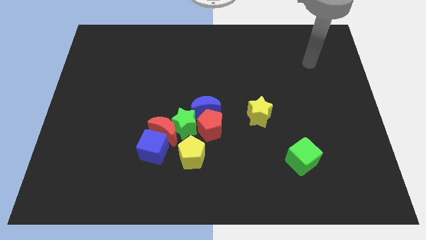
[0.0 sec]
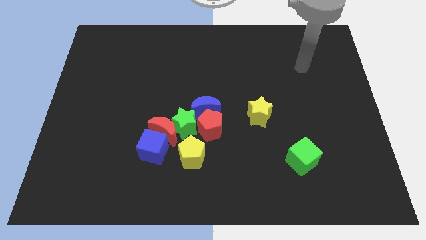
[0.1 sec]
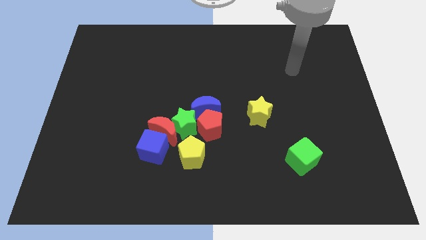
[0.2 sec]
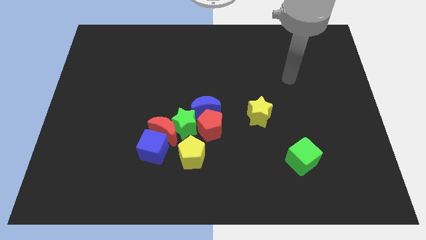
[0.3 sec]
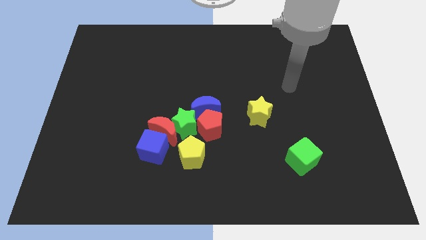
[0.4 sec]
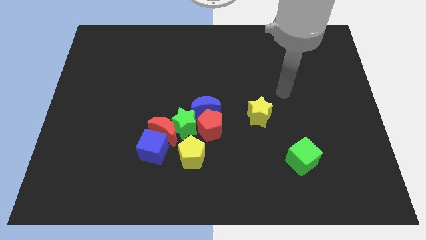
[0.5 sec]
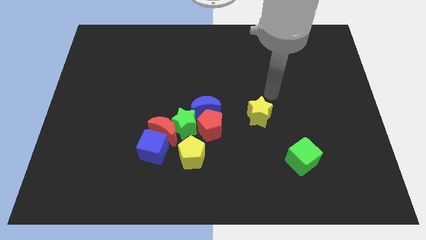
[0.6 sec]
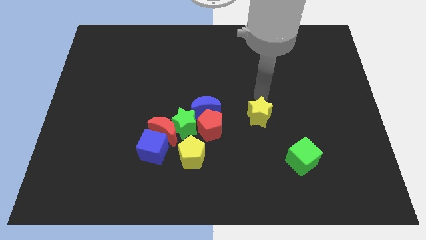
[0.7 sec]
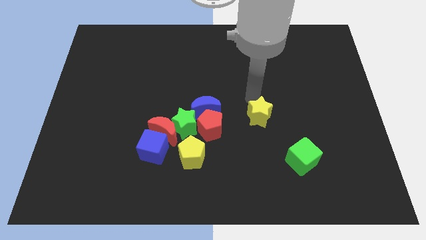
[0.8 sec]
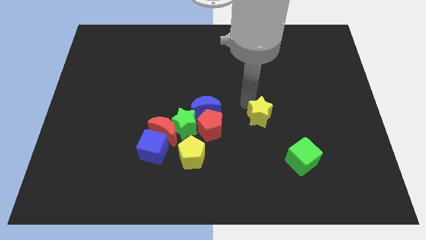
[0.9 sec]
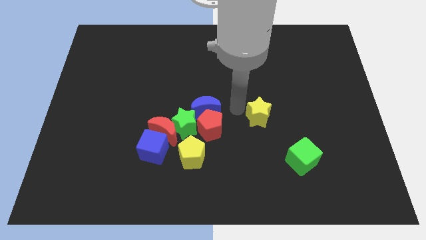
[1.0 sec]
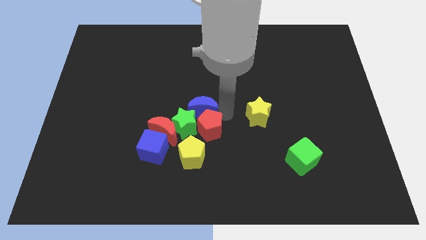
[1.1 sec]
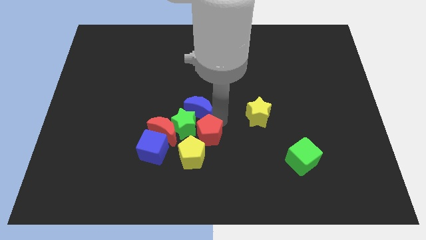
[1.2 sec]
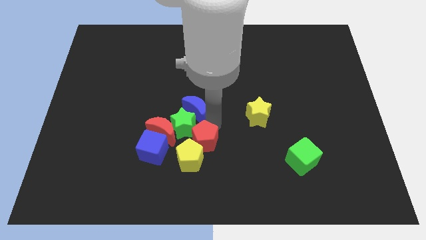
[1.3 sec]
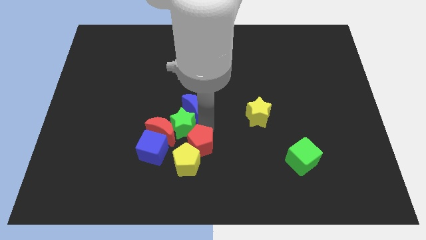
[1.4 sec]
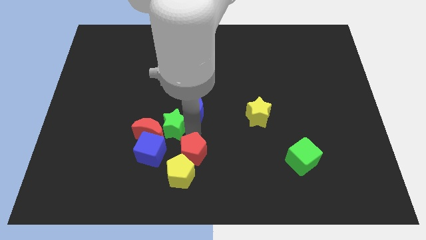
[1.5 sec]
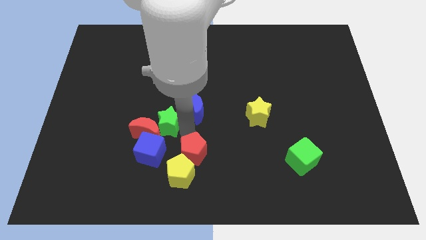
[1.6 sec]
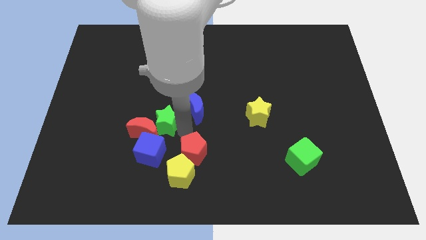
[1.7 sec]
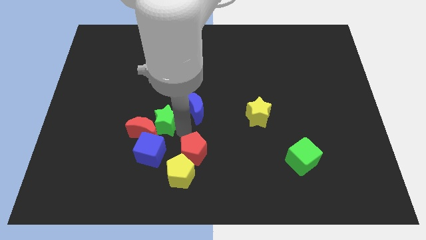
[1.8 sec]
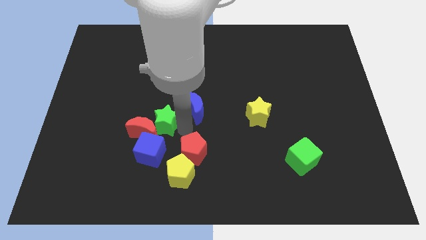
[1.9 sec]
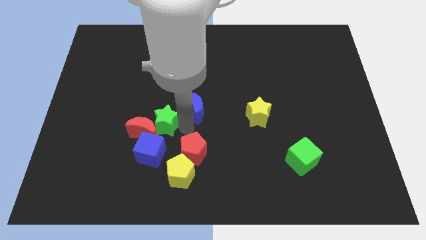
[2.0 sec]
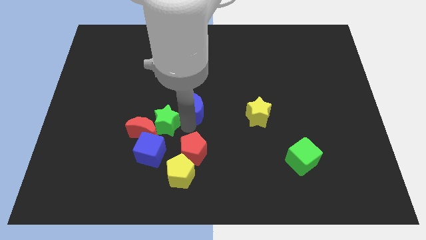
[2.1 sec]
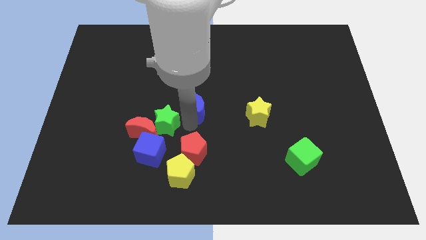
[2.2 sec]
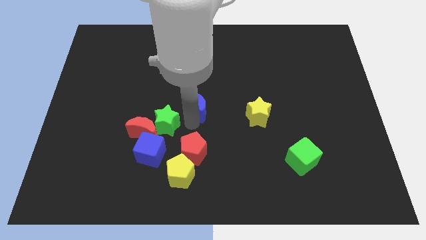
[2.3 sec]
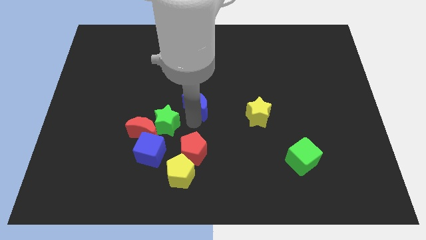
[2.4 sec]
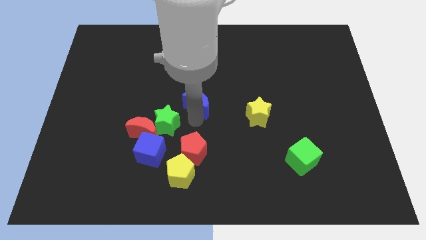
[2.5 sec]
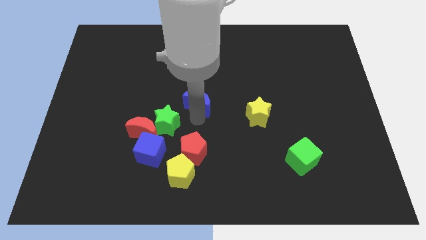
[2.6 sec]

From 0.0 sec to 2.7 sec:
separate the blue moon from the red pentagon and green star

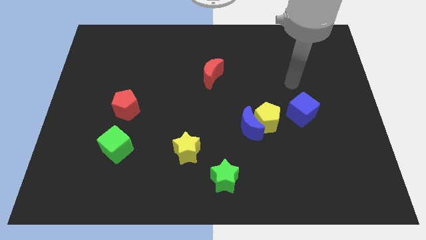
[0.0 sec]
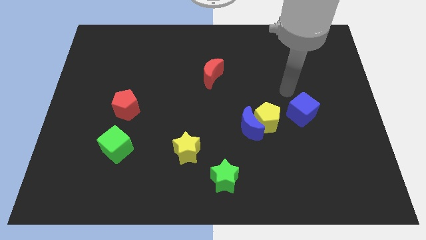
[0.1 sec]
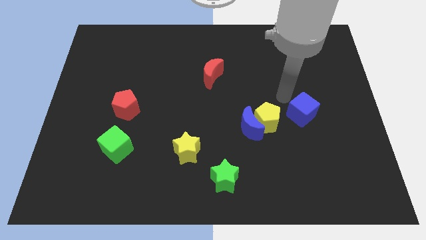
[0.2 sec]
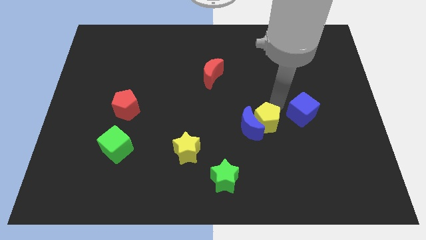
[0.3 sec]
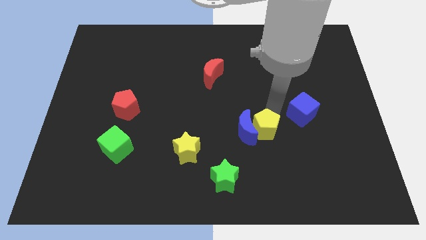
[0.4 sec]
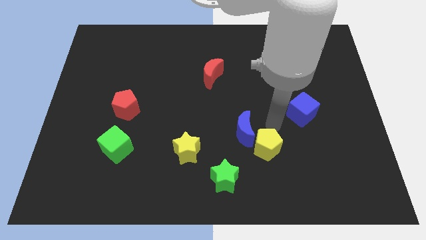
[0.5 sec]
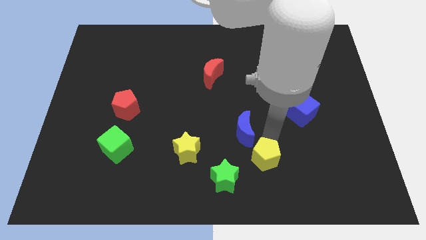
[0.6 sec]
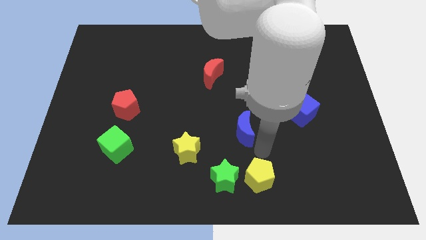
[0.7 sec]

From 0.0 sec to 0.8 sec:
pull the blue moon apart from the yellow pentagon

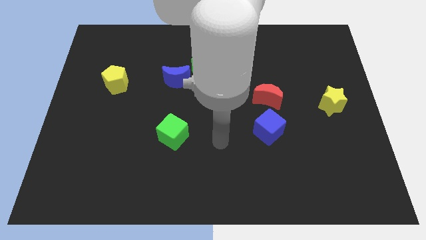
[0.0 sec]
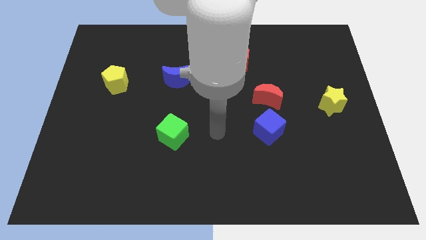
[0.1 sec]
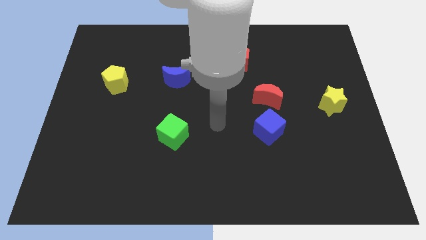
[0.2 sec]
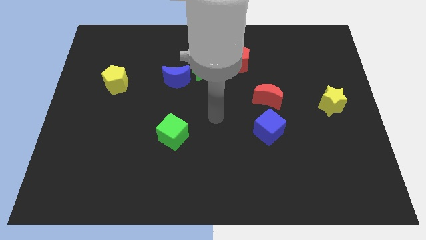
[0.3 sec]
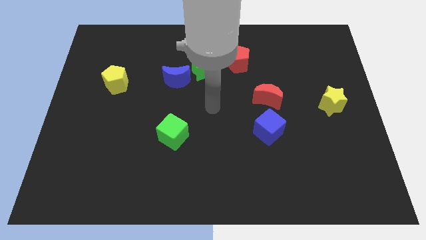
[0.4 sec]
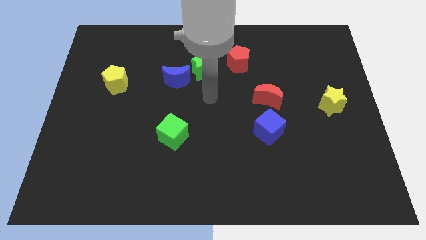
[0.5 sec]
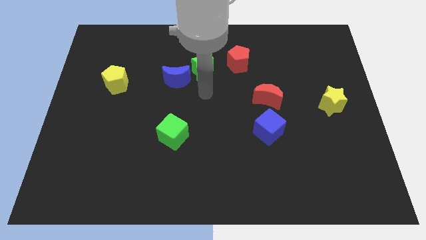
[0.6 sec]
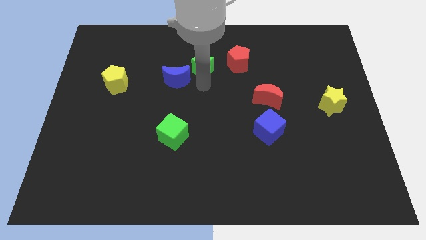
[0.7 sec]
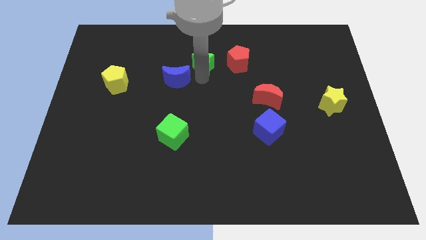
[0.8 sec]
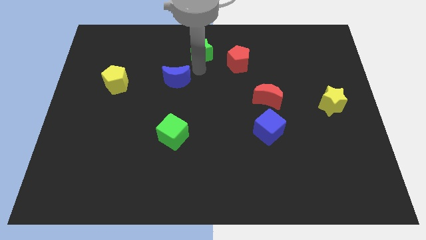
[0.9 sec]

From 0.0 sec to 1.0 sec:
pull the blue moon apart from the green star

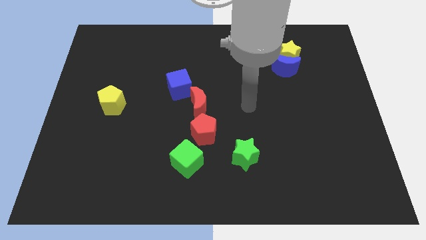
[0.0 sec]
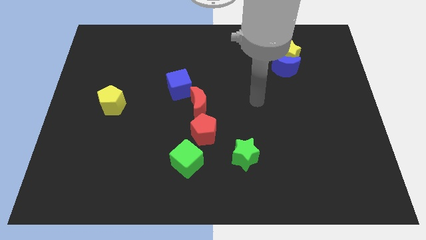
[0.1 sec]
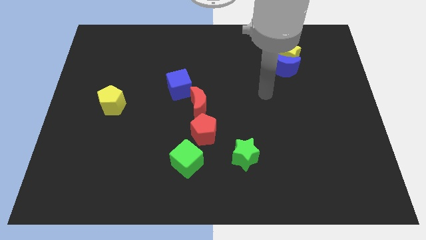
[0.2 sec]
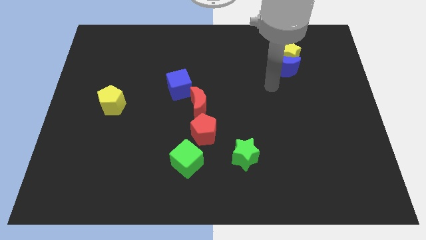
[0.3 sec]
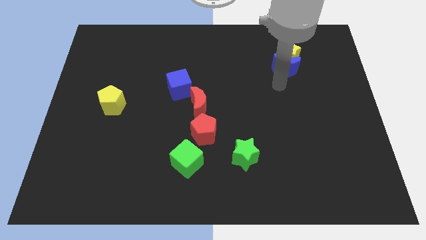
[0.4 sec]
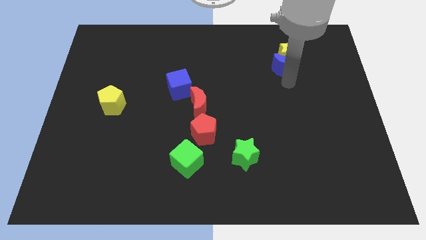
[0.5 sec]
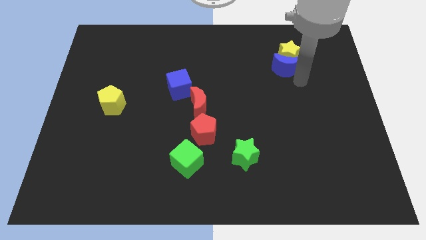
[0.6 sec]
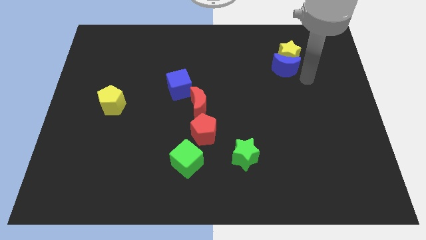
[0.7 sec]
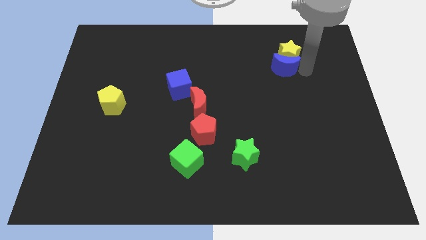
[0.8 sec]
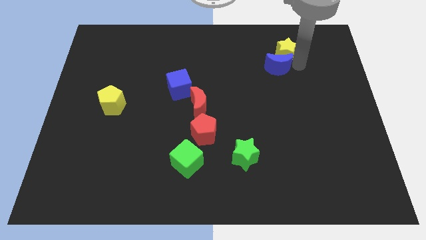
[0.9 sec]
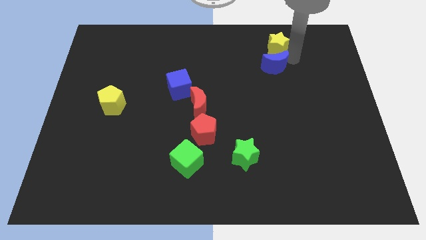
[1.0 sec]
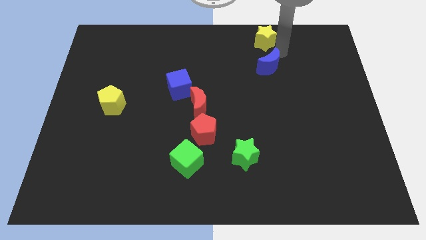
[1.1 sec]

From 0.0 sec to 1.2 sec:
move the blue moon away from the yellow star

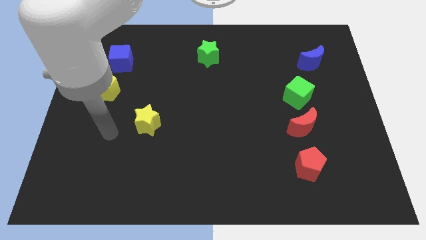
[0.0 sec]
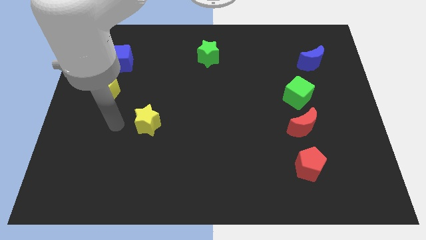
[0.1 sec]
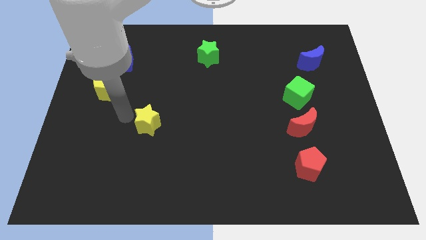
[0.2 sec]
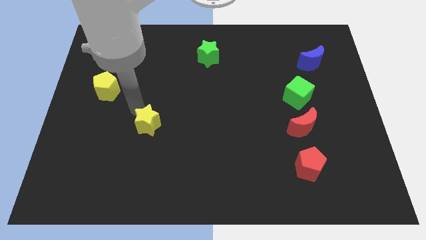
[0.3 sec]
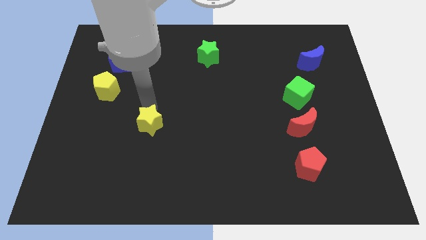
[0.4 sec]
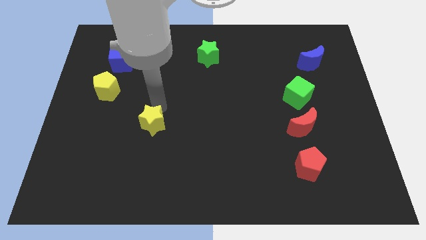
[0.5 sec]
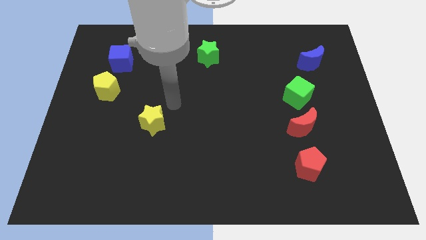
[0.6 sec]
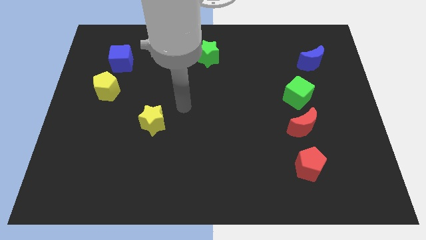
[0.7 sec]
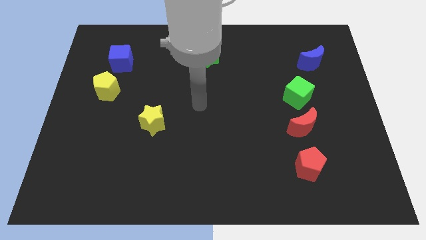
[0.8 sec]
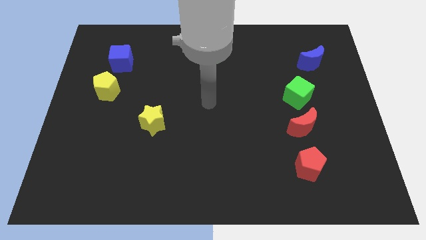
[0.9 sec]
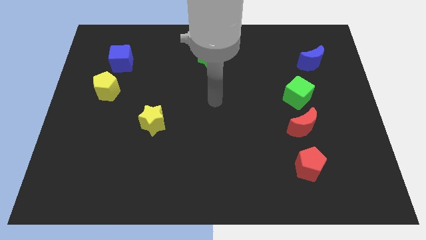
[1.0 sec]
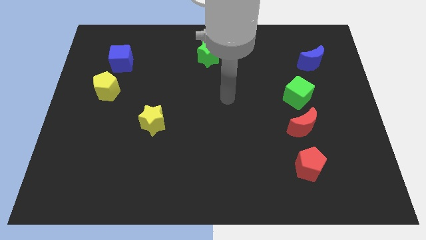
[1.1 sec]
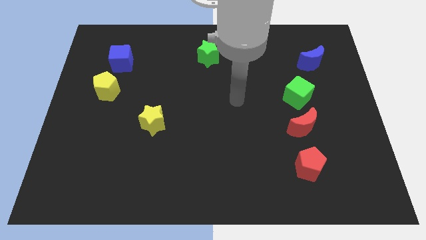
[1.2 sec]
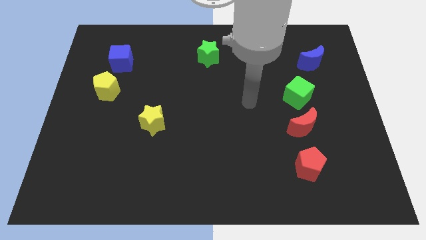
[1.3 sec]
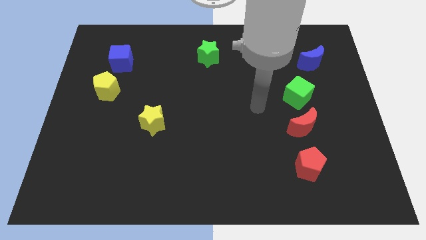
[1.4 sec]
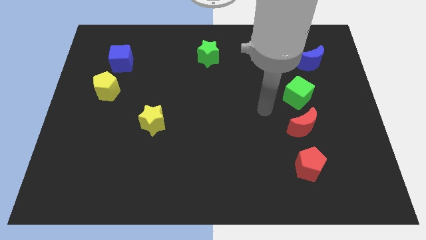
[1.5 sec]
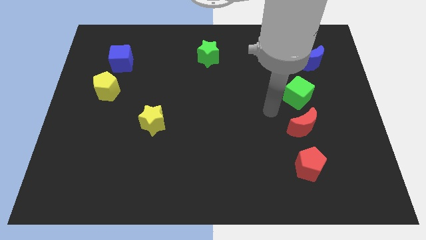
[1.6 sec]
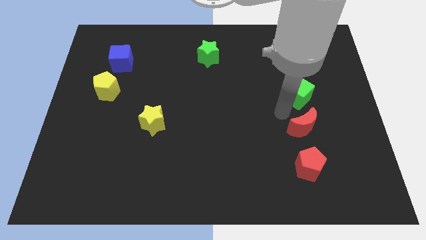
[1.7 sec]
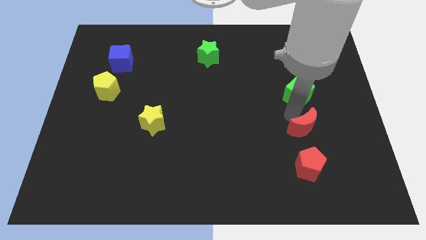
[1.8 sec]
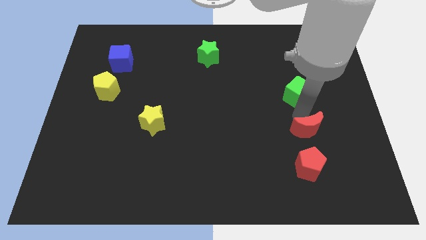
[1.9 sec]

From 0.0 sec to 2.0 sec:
move the green cube away from the red moon

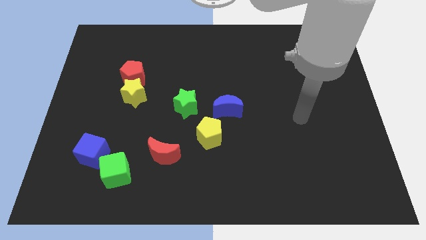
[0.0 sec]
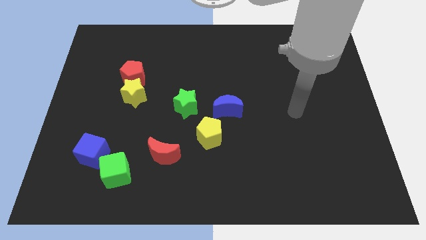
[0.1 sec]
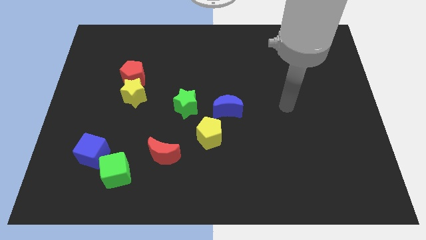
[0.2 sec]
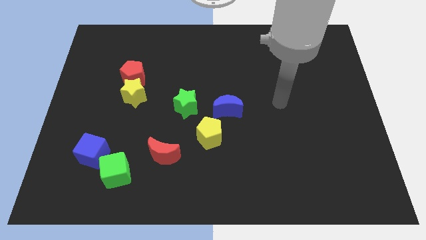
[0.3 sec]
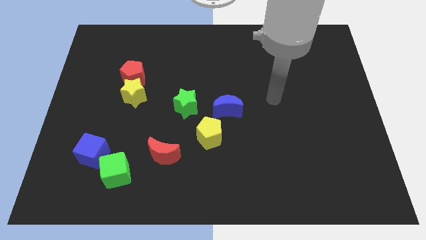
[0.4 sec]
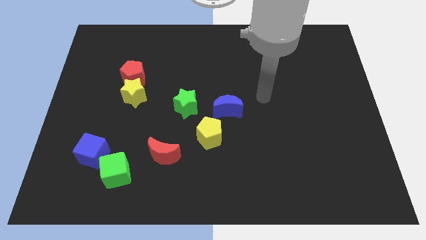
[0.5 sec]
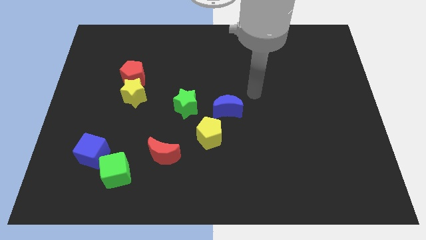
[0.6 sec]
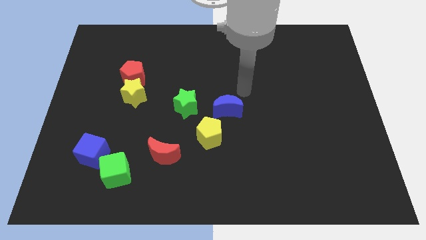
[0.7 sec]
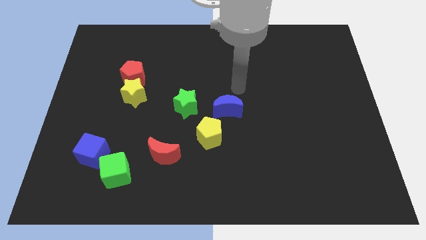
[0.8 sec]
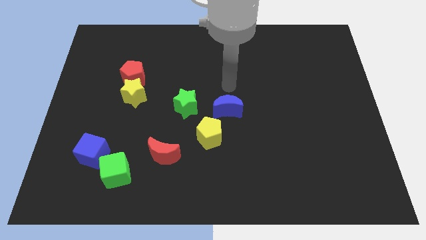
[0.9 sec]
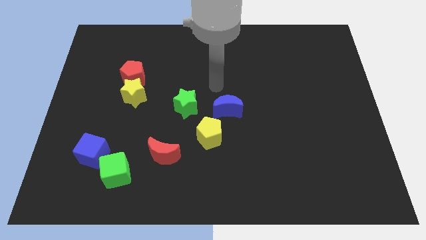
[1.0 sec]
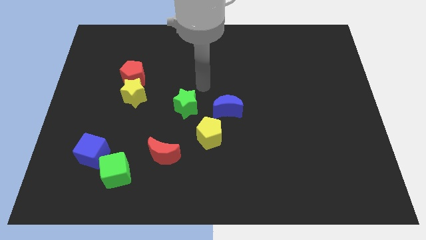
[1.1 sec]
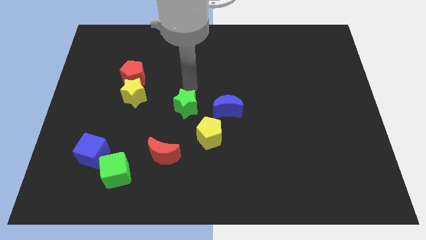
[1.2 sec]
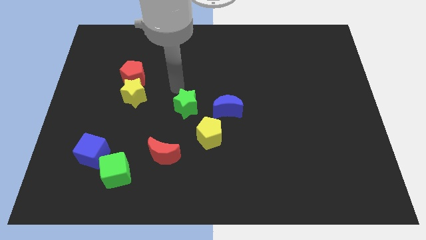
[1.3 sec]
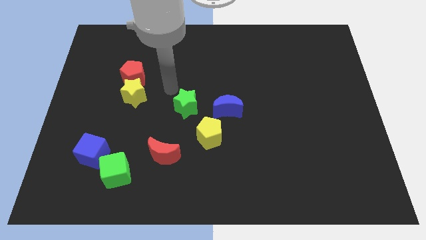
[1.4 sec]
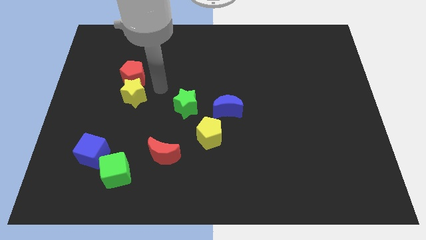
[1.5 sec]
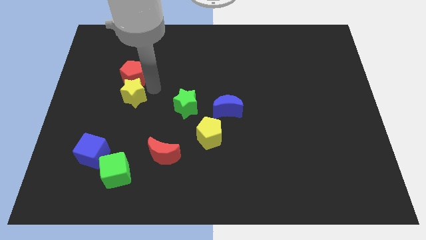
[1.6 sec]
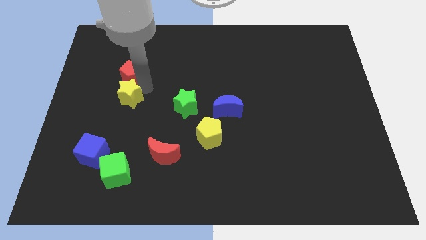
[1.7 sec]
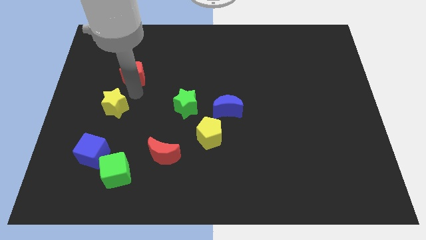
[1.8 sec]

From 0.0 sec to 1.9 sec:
move the red pentagon away from the yellow star
